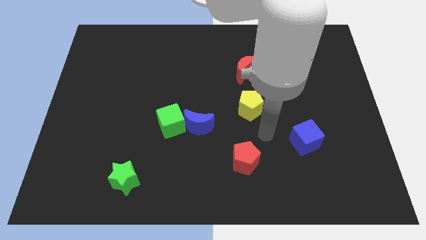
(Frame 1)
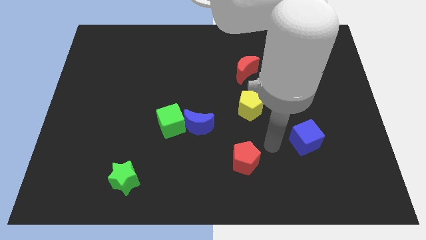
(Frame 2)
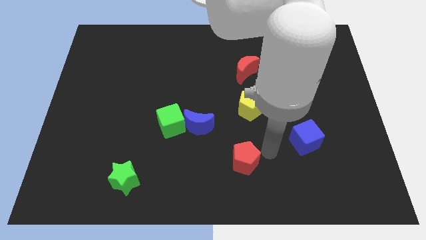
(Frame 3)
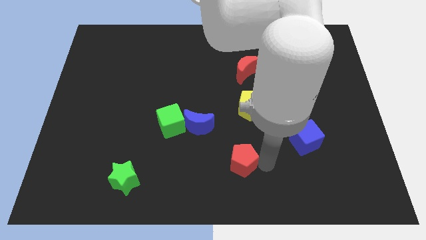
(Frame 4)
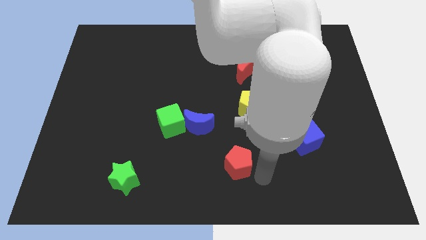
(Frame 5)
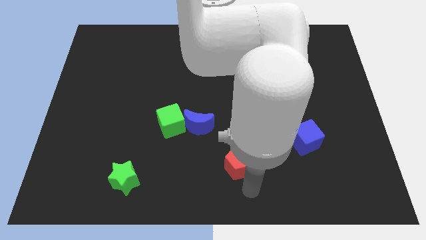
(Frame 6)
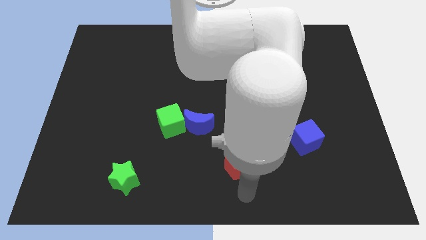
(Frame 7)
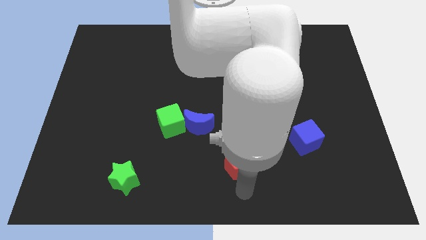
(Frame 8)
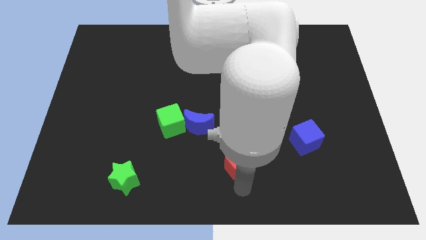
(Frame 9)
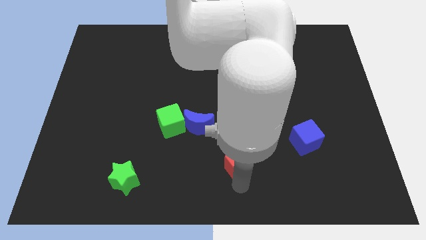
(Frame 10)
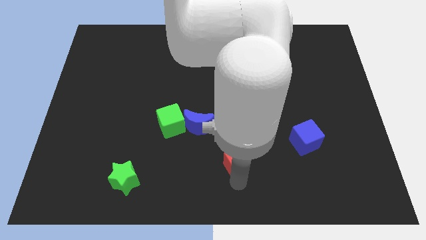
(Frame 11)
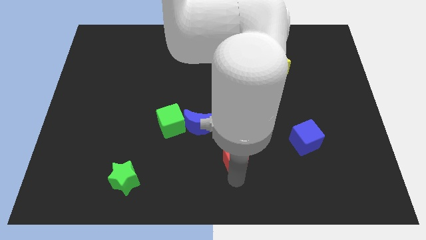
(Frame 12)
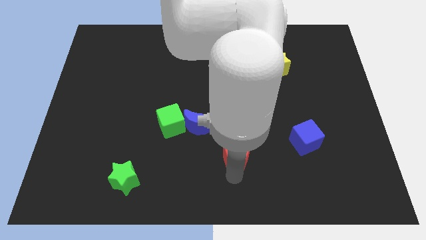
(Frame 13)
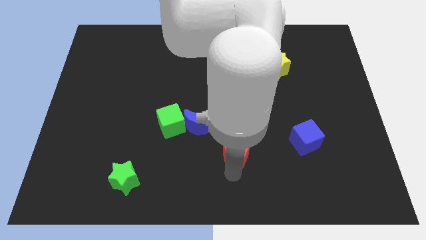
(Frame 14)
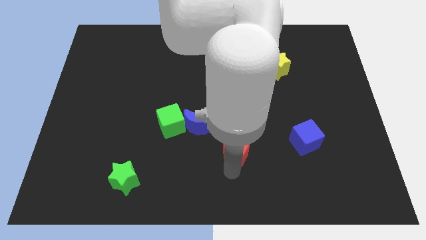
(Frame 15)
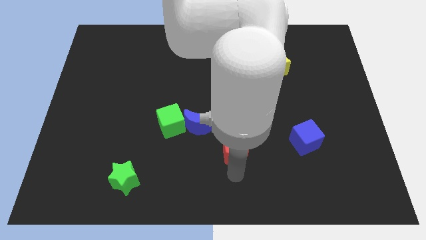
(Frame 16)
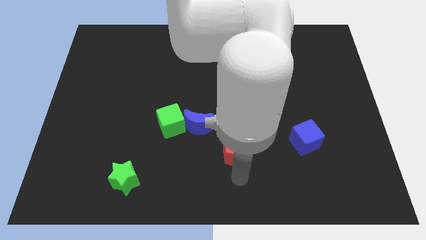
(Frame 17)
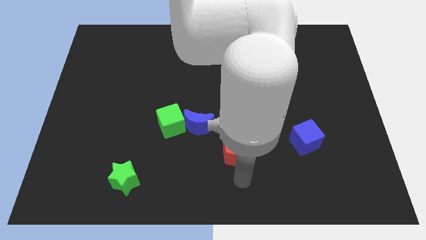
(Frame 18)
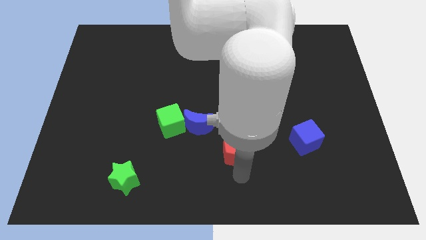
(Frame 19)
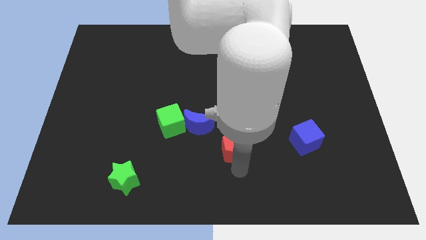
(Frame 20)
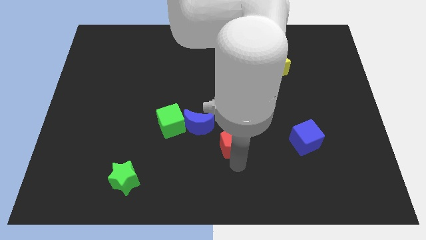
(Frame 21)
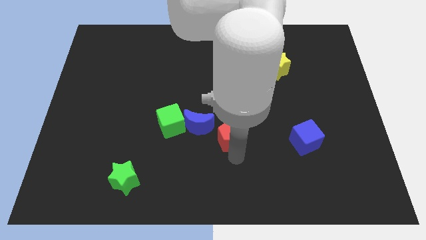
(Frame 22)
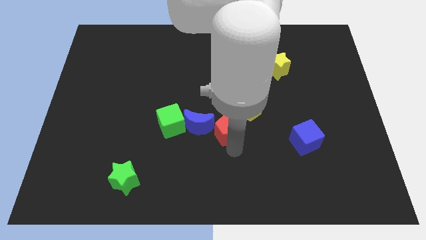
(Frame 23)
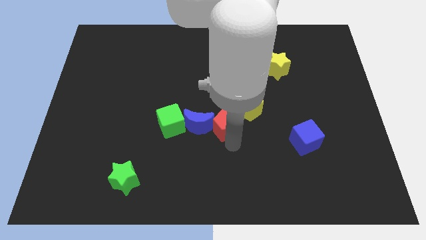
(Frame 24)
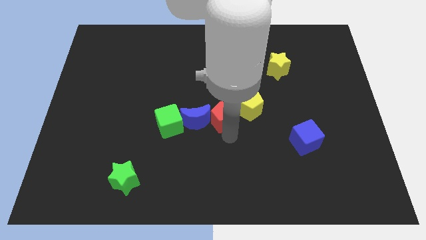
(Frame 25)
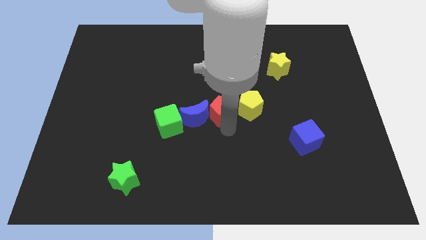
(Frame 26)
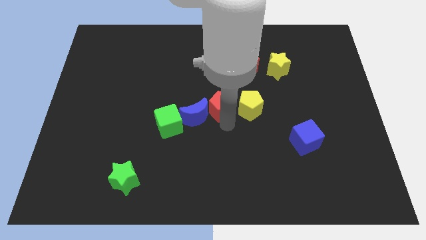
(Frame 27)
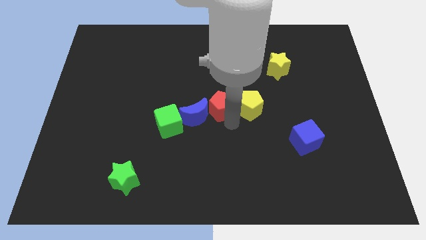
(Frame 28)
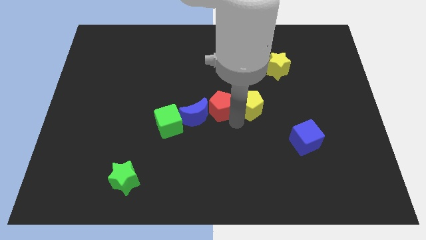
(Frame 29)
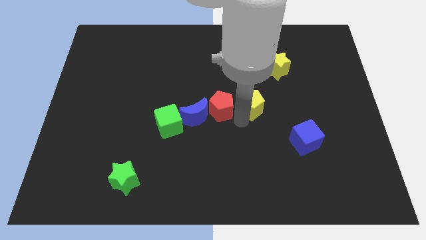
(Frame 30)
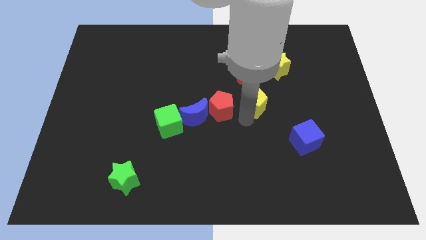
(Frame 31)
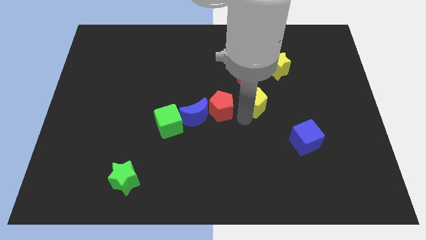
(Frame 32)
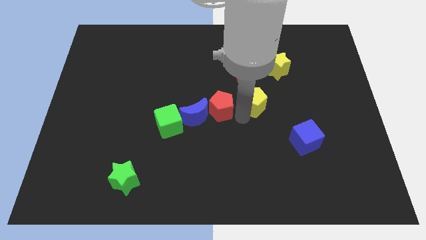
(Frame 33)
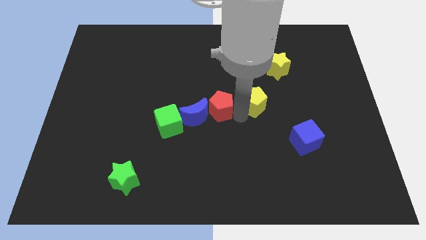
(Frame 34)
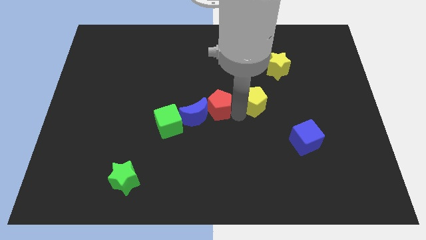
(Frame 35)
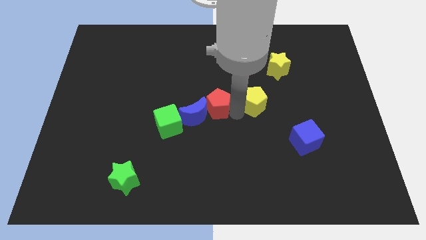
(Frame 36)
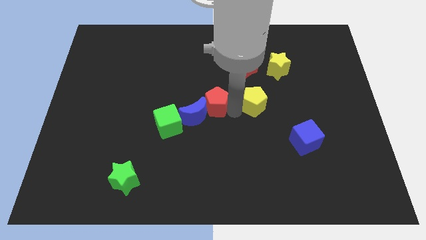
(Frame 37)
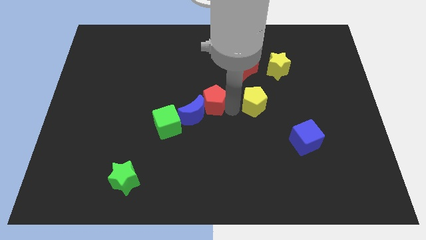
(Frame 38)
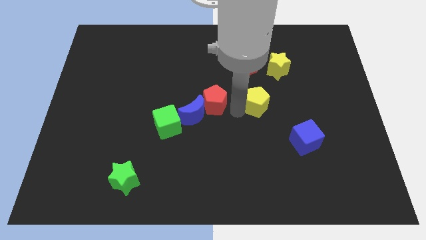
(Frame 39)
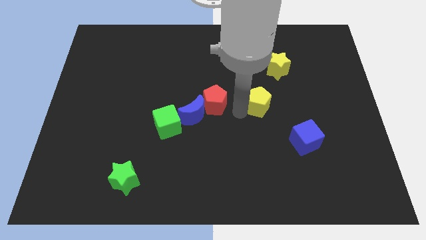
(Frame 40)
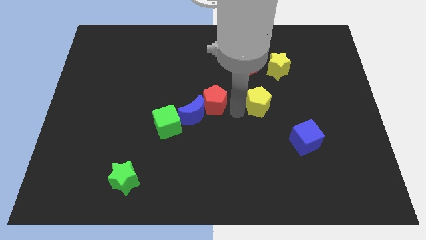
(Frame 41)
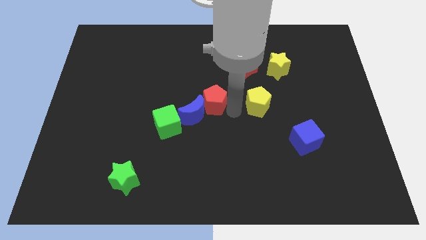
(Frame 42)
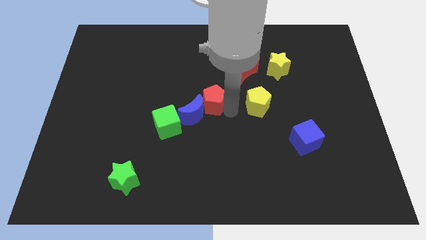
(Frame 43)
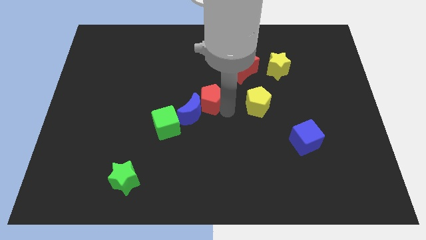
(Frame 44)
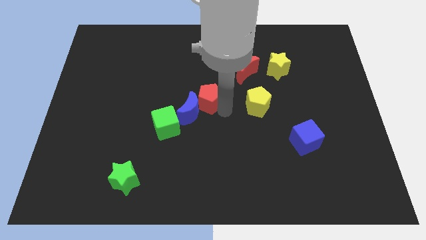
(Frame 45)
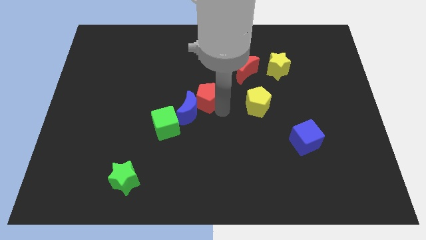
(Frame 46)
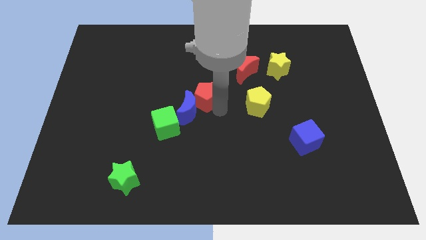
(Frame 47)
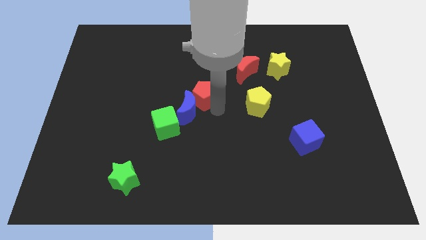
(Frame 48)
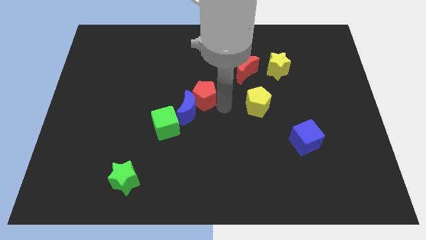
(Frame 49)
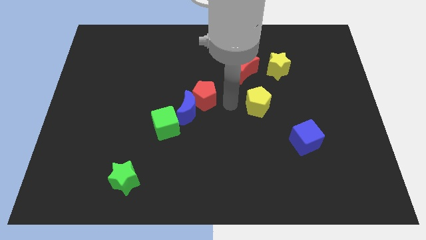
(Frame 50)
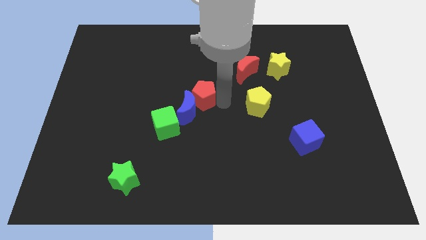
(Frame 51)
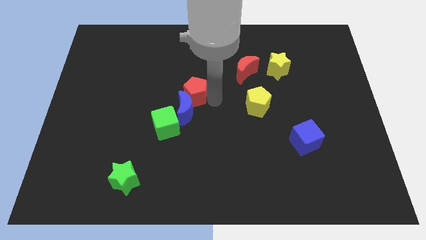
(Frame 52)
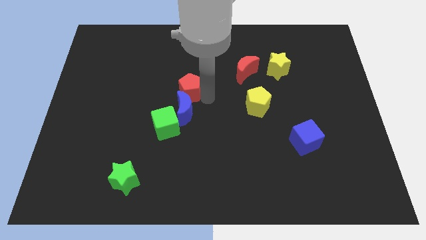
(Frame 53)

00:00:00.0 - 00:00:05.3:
push the red pentagon above the green cube

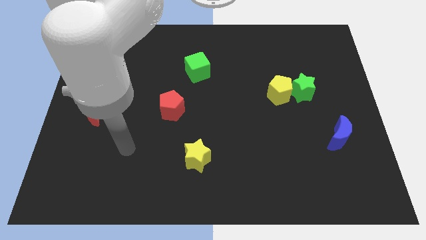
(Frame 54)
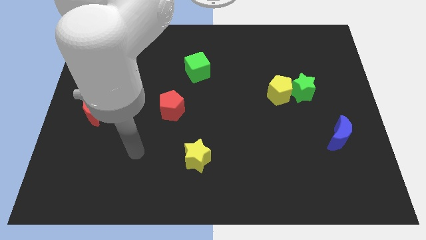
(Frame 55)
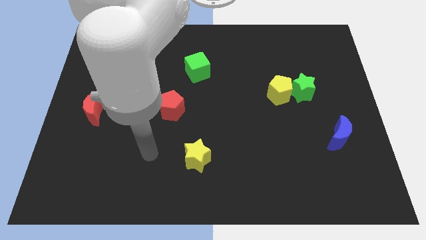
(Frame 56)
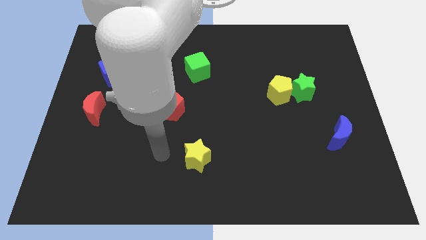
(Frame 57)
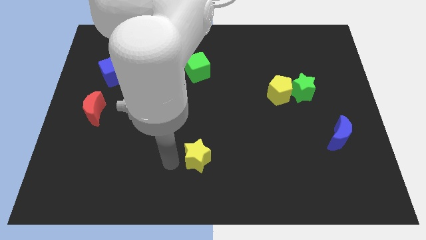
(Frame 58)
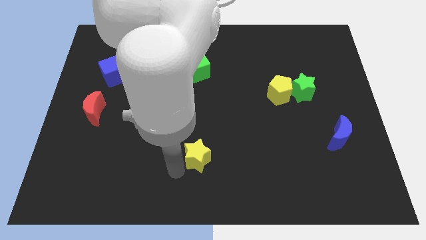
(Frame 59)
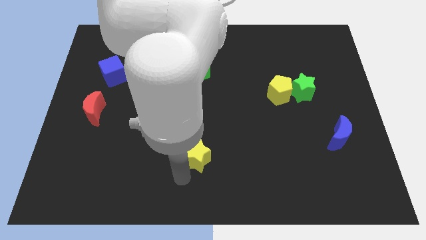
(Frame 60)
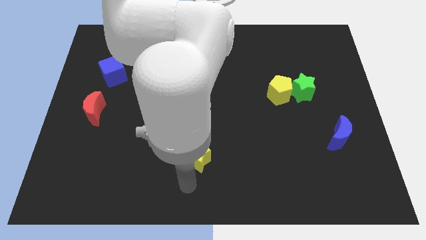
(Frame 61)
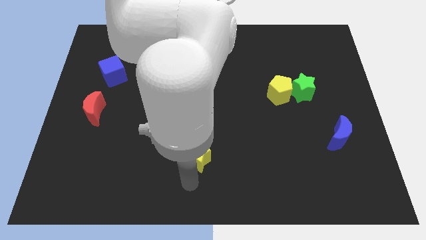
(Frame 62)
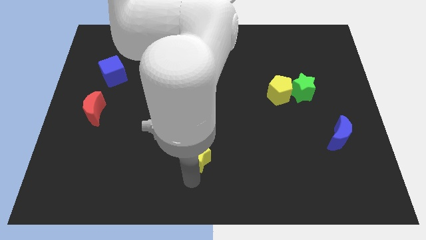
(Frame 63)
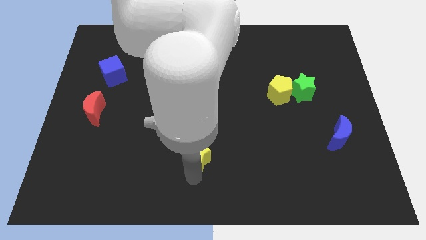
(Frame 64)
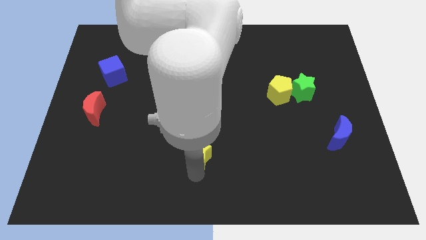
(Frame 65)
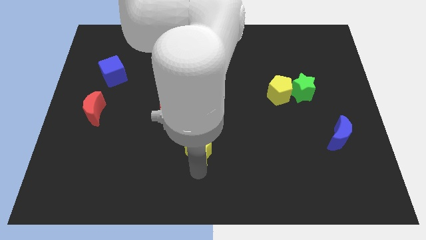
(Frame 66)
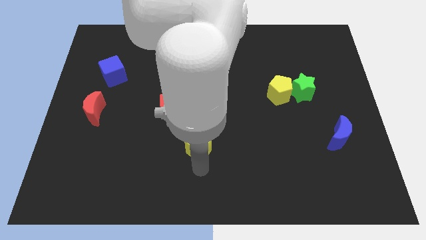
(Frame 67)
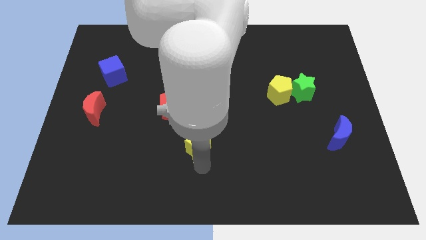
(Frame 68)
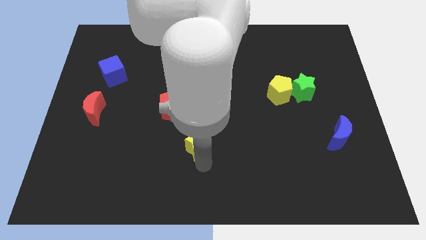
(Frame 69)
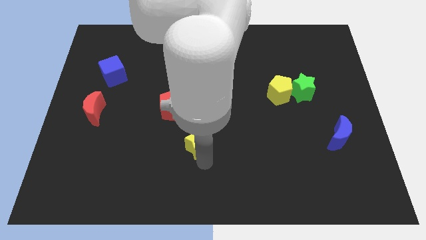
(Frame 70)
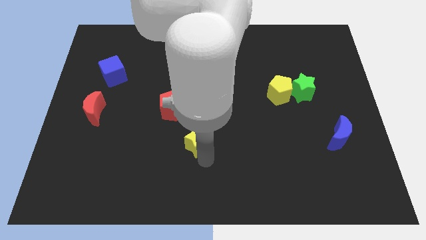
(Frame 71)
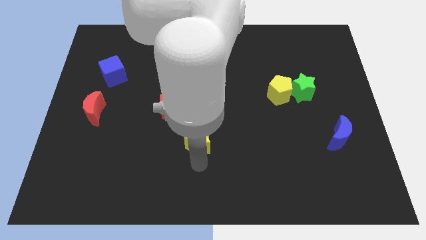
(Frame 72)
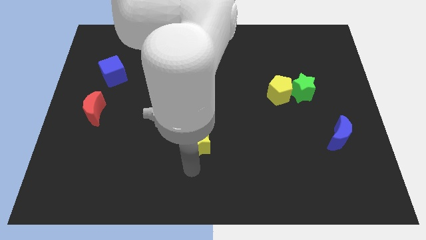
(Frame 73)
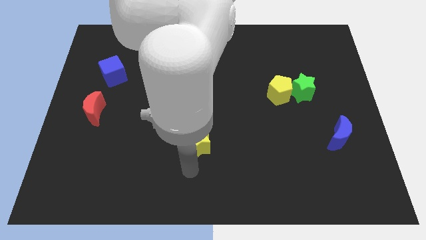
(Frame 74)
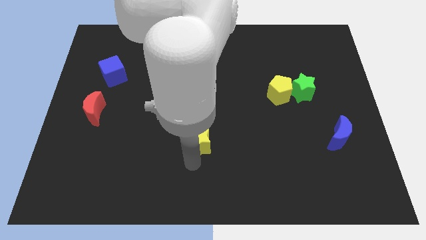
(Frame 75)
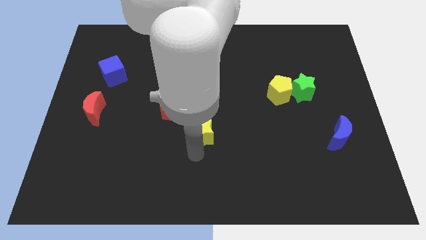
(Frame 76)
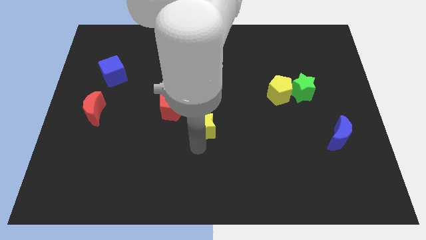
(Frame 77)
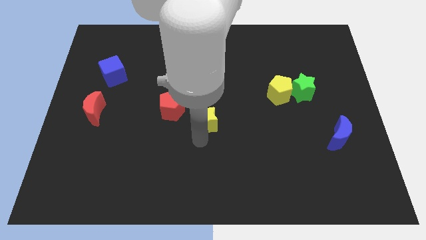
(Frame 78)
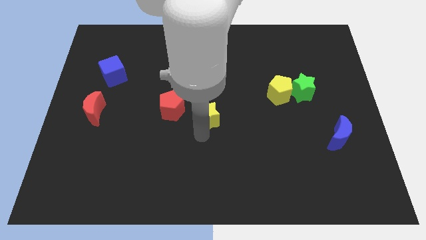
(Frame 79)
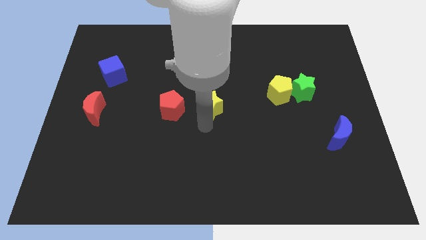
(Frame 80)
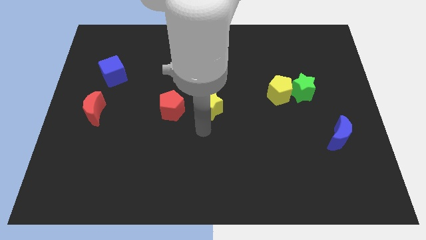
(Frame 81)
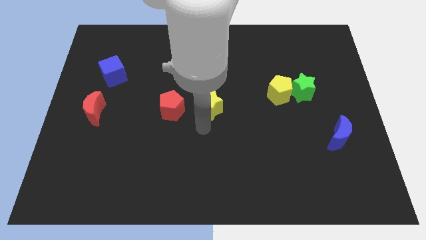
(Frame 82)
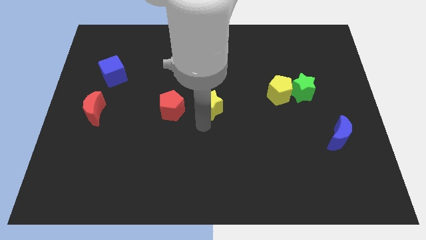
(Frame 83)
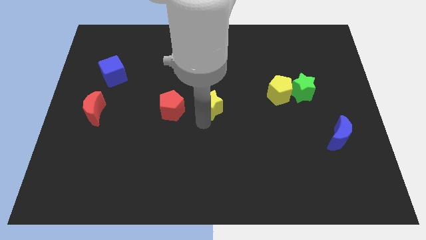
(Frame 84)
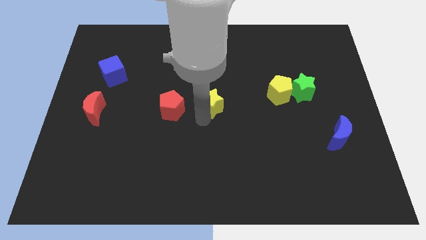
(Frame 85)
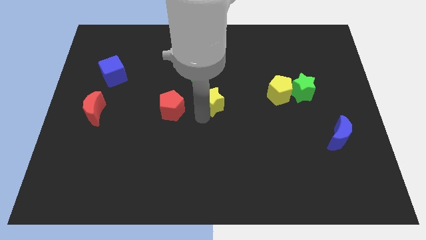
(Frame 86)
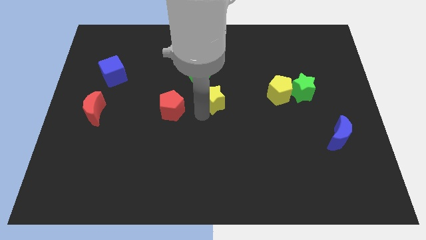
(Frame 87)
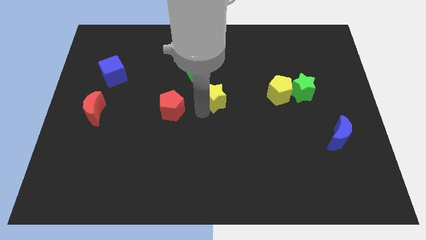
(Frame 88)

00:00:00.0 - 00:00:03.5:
put the yellow star to the bottom right side of the green cube
